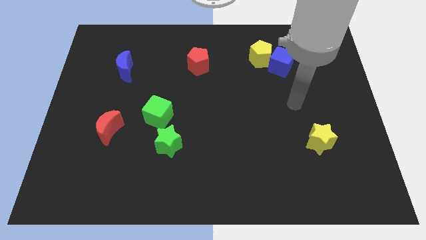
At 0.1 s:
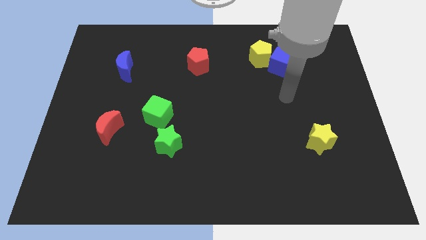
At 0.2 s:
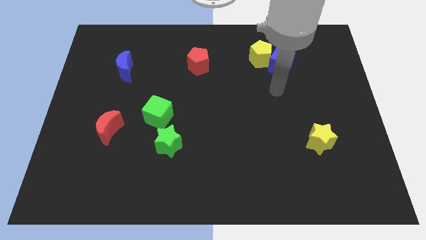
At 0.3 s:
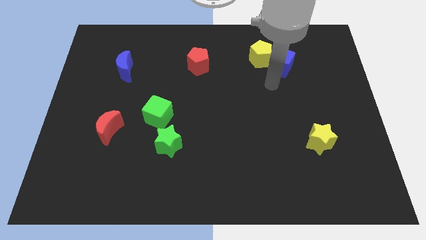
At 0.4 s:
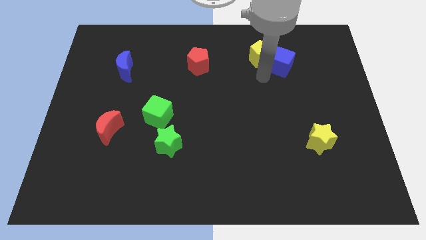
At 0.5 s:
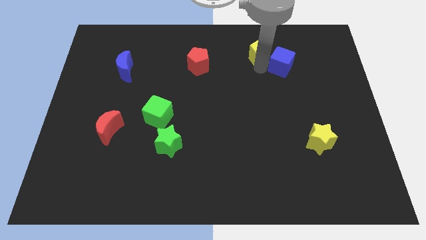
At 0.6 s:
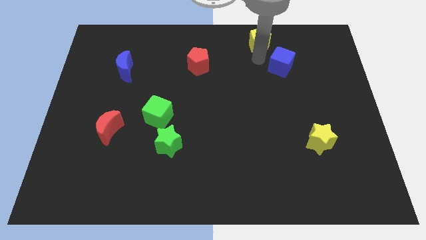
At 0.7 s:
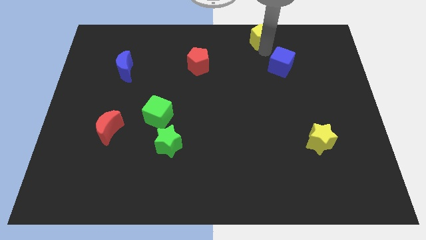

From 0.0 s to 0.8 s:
pull the blue cube apart from the yellow pentagon

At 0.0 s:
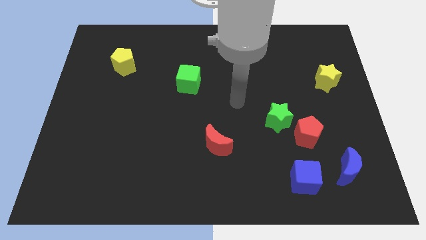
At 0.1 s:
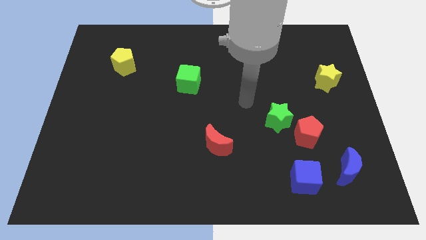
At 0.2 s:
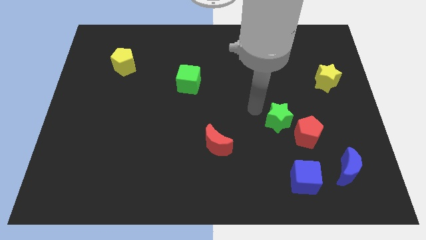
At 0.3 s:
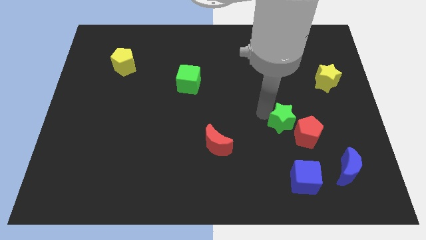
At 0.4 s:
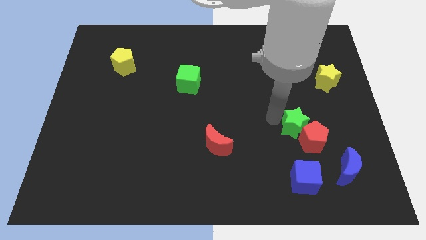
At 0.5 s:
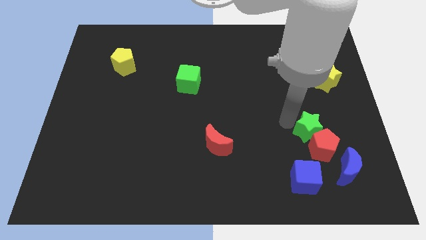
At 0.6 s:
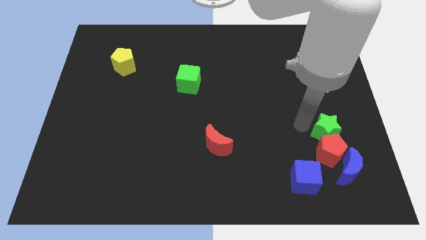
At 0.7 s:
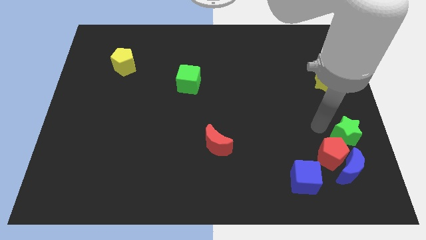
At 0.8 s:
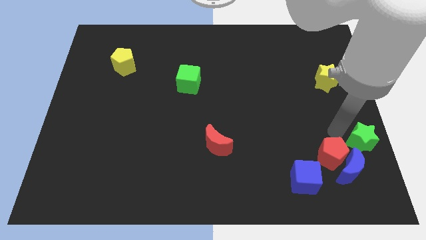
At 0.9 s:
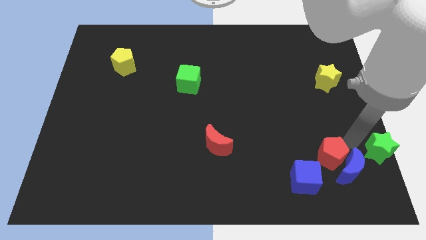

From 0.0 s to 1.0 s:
pull the red pentagon apart from the green star

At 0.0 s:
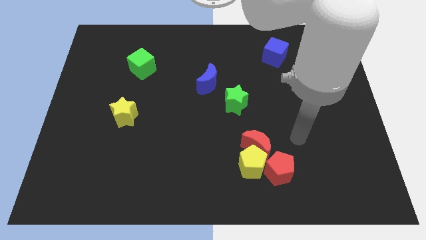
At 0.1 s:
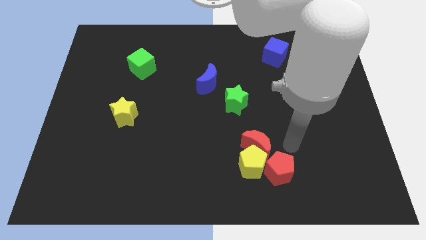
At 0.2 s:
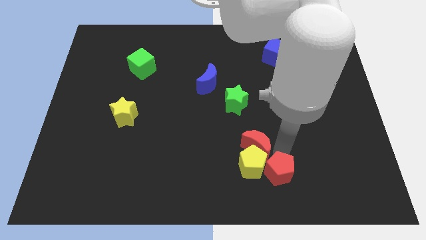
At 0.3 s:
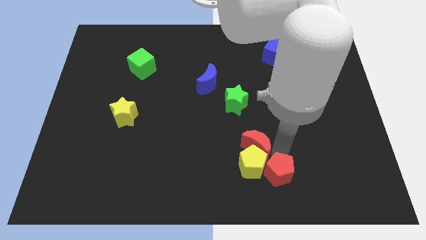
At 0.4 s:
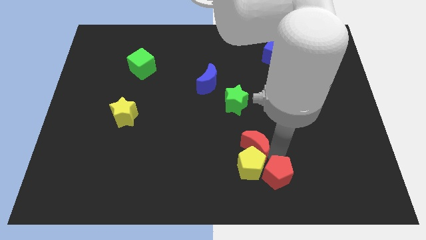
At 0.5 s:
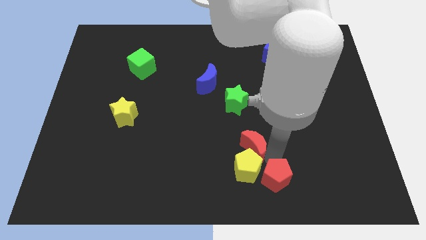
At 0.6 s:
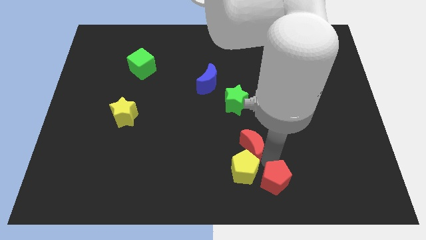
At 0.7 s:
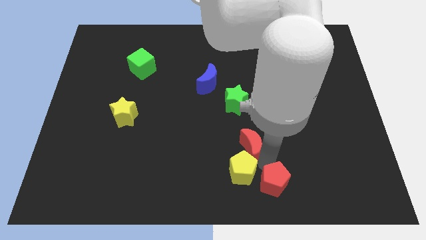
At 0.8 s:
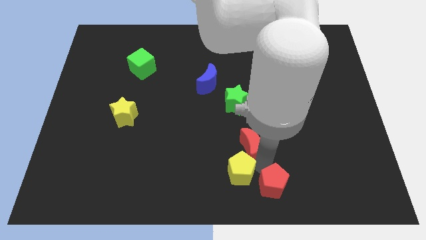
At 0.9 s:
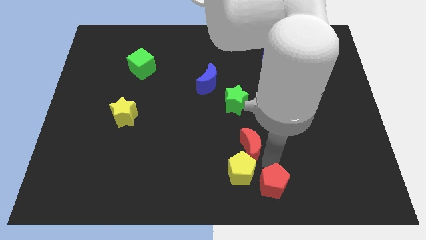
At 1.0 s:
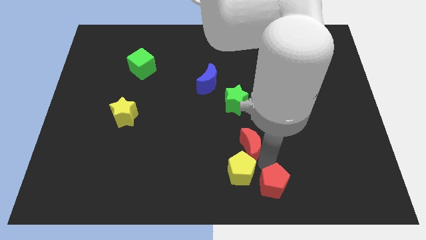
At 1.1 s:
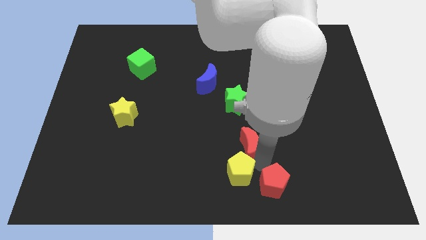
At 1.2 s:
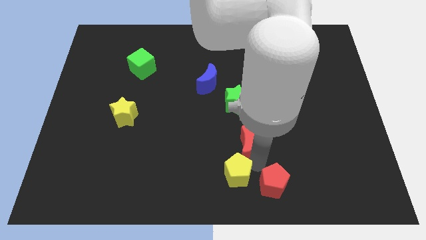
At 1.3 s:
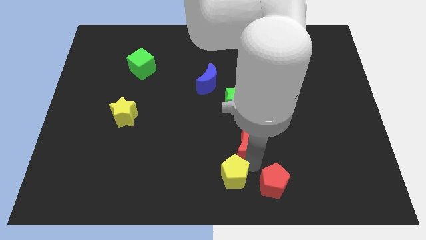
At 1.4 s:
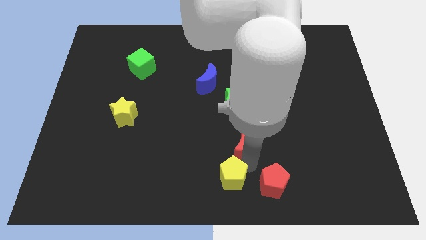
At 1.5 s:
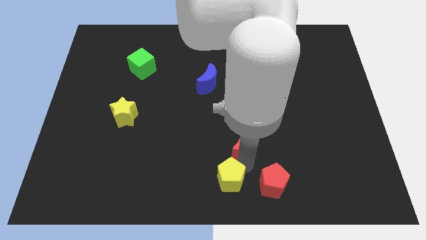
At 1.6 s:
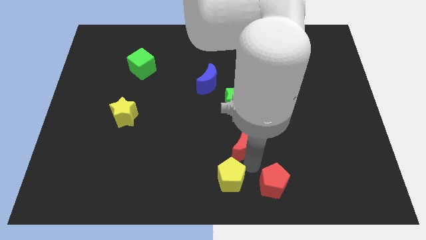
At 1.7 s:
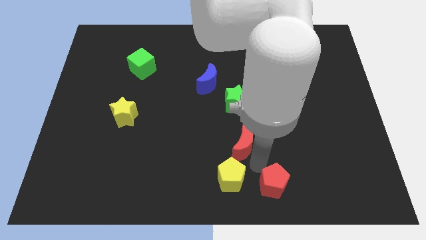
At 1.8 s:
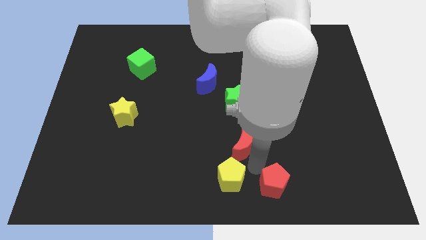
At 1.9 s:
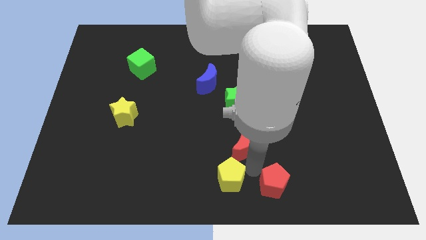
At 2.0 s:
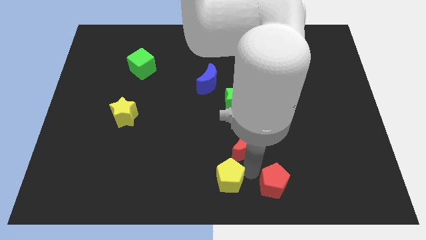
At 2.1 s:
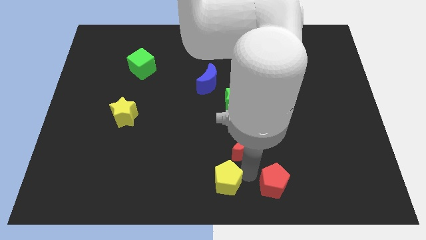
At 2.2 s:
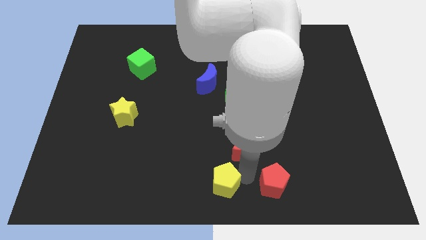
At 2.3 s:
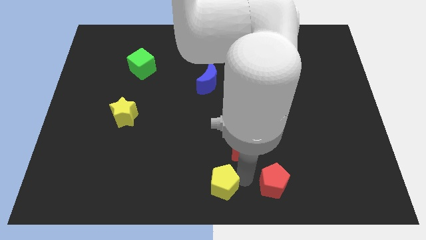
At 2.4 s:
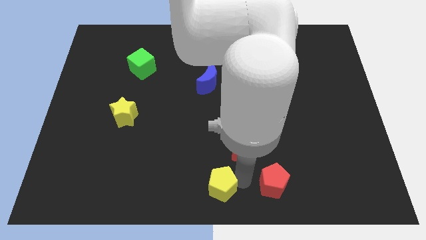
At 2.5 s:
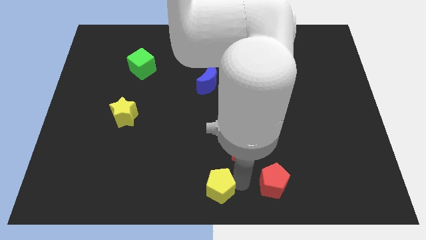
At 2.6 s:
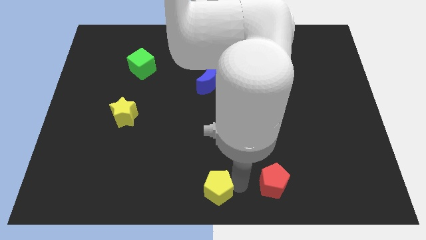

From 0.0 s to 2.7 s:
move the yellow pentagon away from the red moon and red pentagon

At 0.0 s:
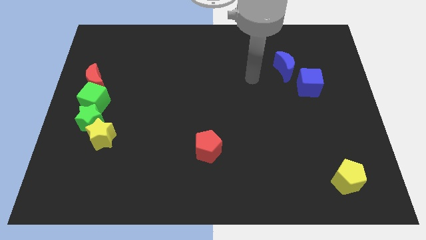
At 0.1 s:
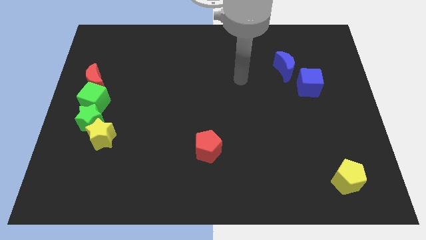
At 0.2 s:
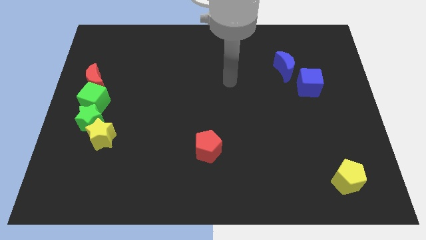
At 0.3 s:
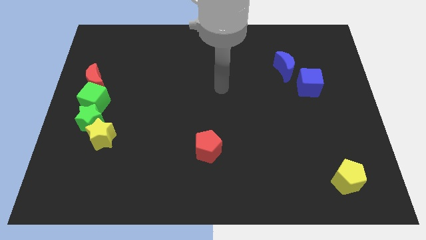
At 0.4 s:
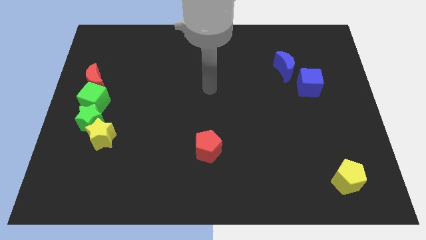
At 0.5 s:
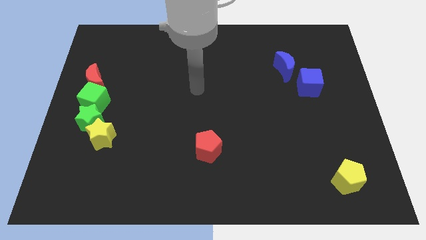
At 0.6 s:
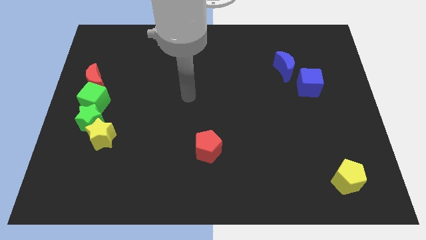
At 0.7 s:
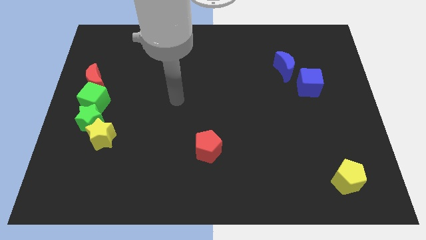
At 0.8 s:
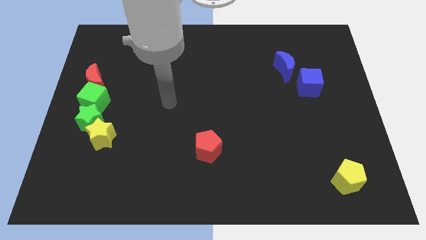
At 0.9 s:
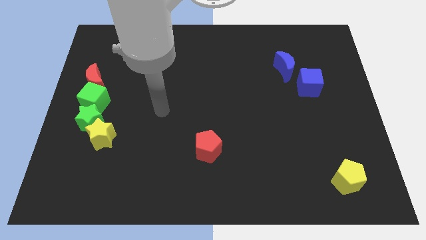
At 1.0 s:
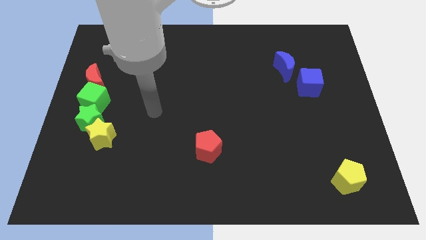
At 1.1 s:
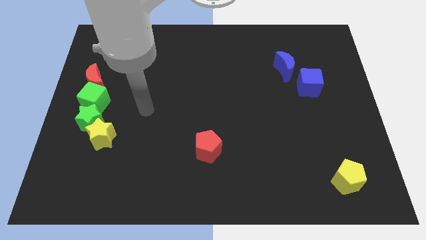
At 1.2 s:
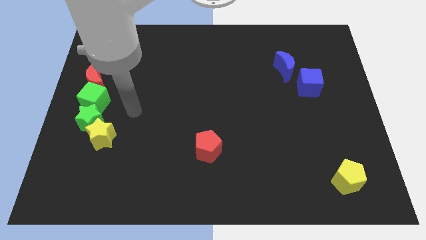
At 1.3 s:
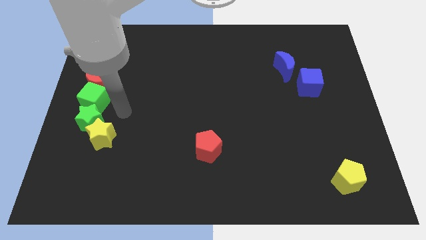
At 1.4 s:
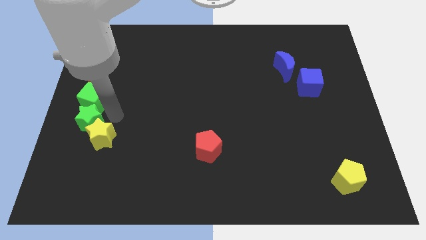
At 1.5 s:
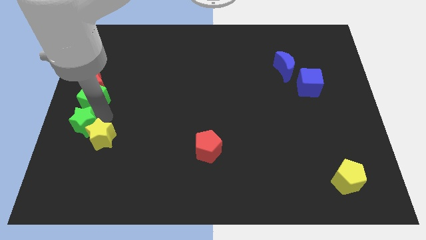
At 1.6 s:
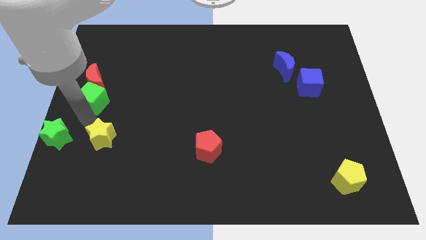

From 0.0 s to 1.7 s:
separate the yellow star from the green star

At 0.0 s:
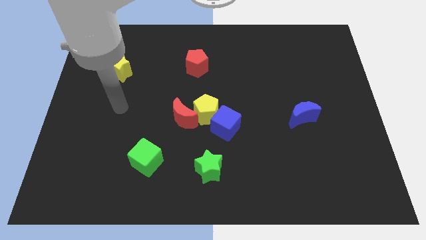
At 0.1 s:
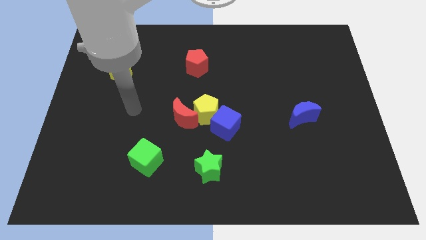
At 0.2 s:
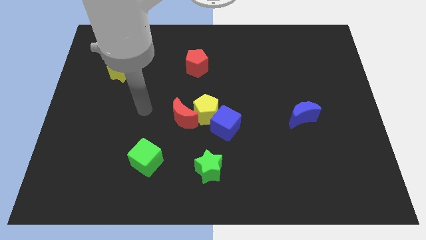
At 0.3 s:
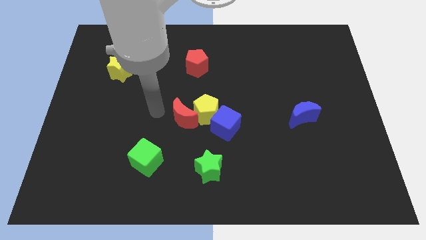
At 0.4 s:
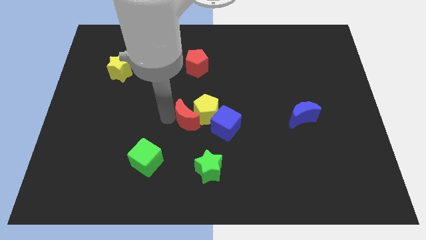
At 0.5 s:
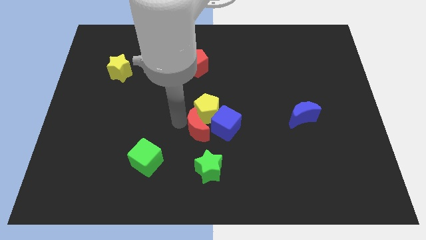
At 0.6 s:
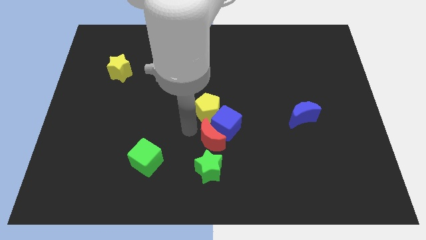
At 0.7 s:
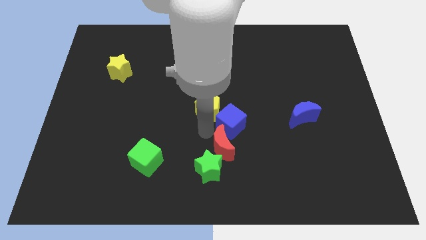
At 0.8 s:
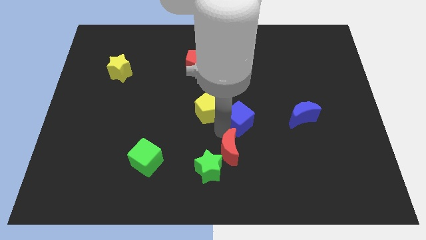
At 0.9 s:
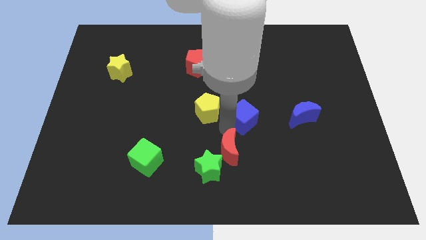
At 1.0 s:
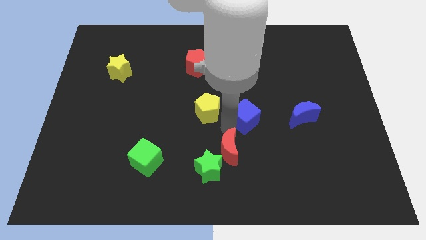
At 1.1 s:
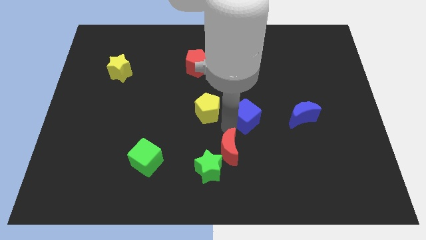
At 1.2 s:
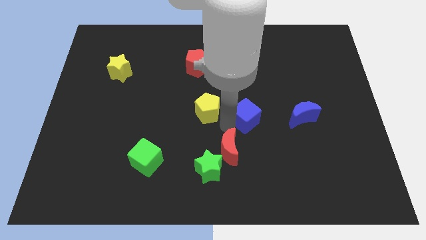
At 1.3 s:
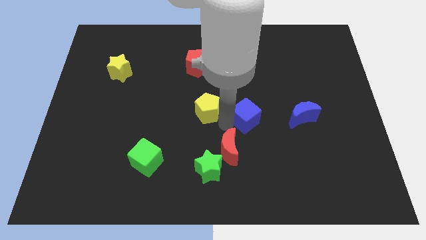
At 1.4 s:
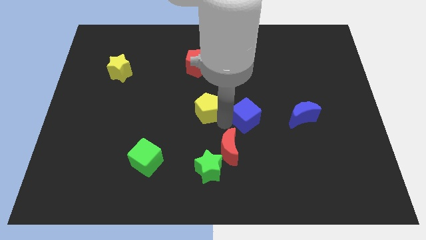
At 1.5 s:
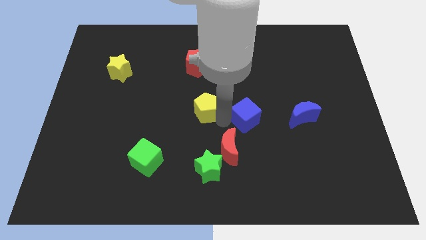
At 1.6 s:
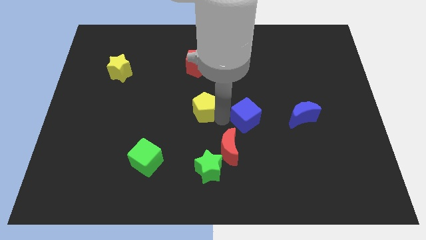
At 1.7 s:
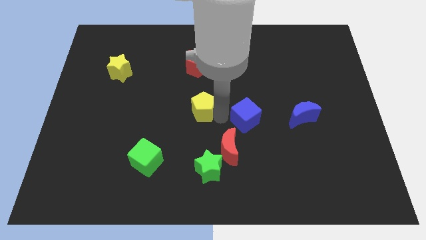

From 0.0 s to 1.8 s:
move the yellow pentagon away from the red moon and blue cube

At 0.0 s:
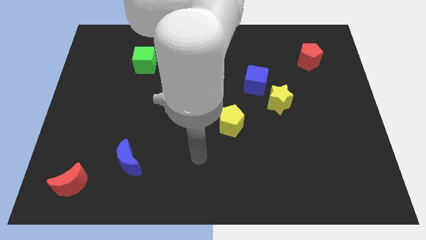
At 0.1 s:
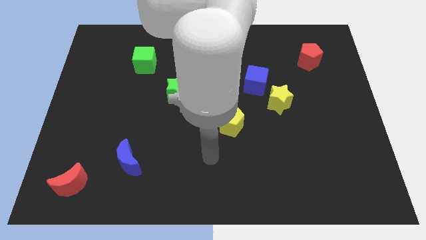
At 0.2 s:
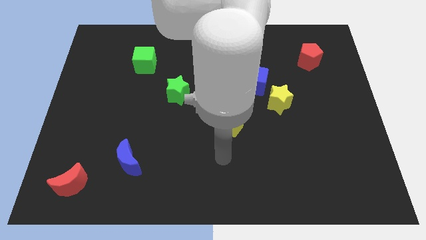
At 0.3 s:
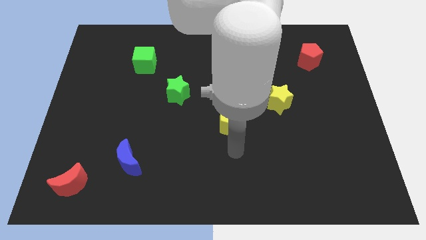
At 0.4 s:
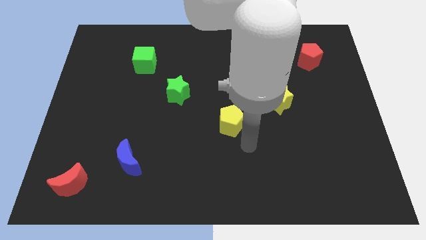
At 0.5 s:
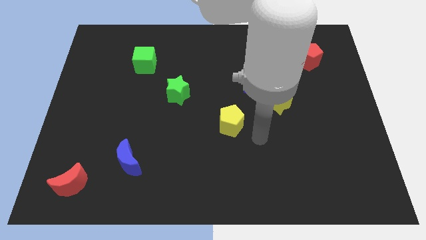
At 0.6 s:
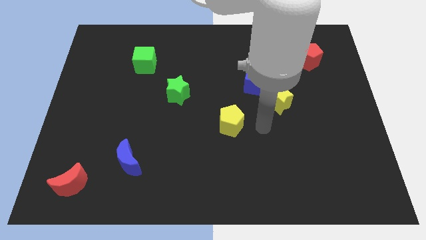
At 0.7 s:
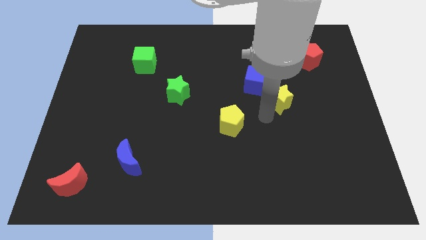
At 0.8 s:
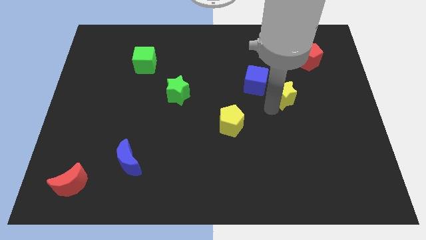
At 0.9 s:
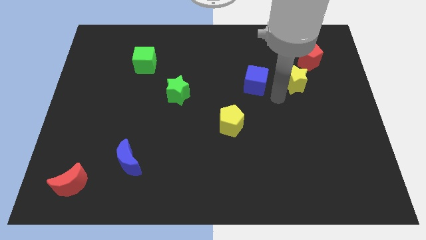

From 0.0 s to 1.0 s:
move the blue cube away from the yellow star

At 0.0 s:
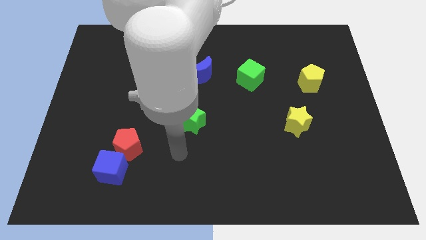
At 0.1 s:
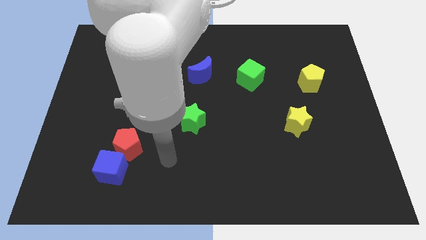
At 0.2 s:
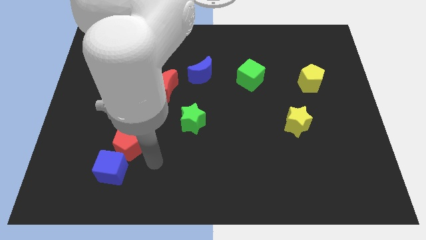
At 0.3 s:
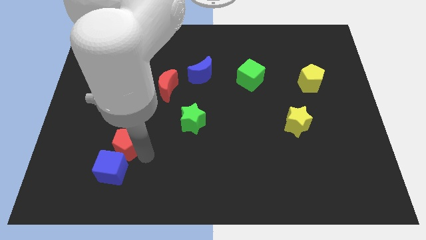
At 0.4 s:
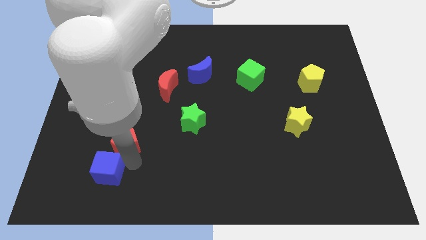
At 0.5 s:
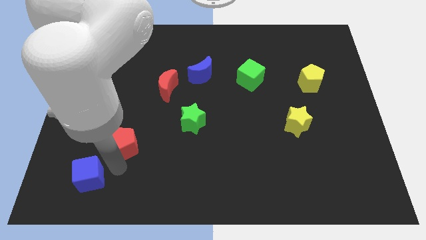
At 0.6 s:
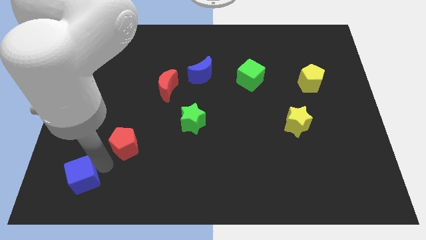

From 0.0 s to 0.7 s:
pull the red pentagon apart from the blue cube
